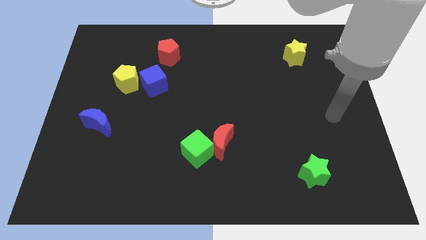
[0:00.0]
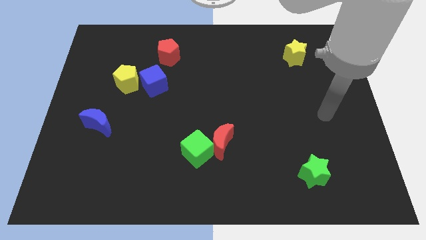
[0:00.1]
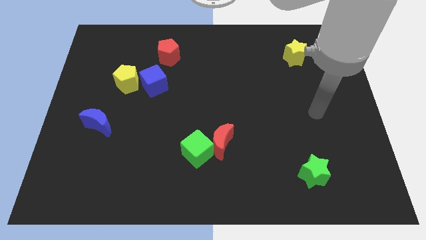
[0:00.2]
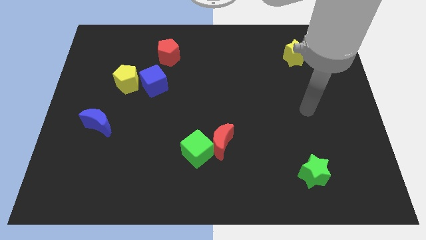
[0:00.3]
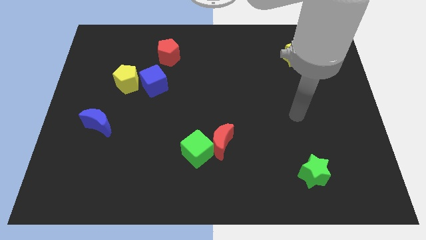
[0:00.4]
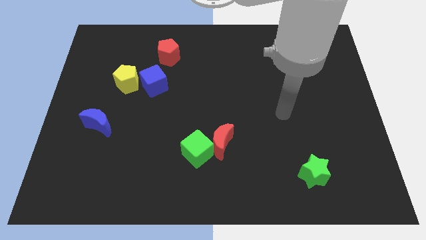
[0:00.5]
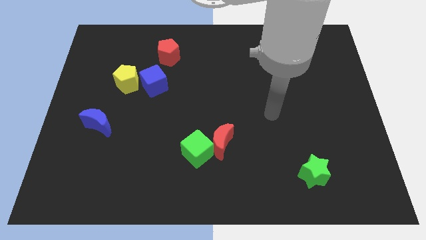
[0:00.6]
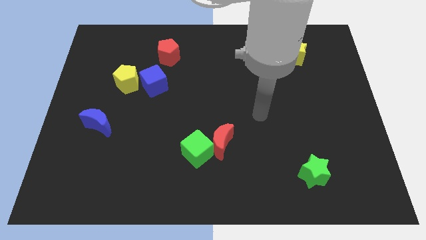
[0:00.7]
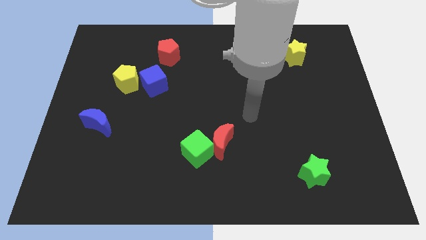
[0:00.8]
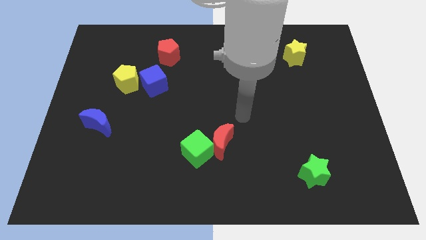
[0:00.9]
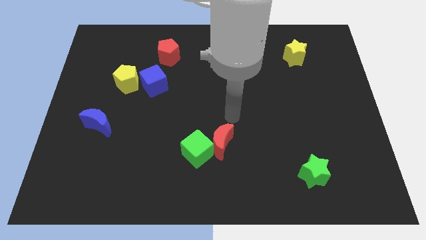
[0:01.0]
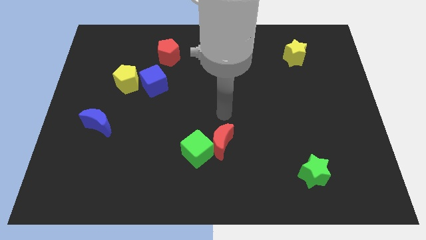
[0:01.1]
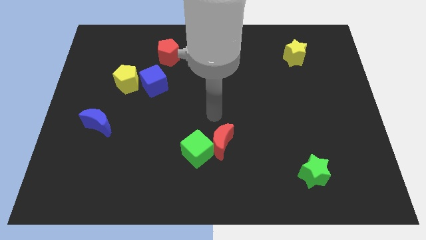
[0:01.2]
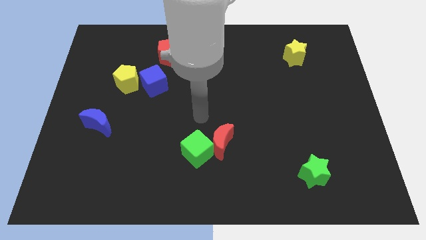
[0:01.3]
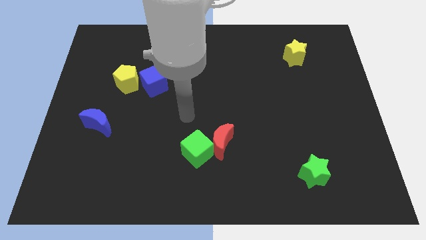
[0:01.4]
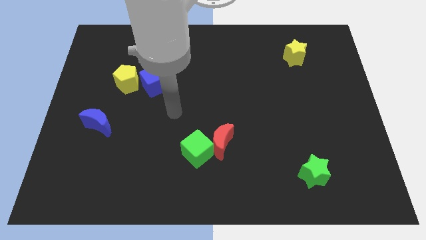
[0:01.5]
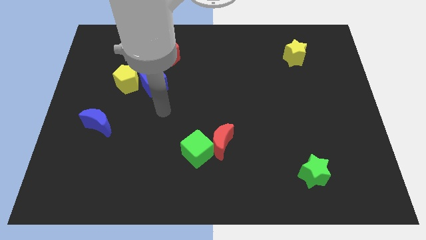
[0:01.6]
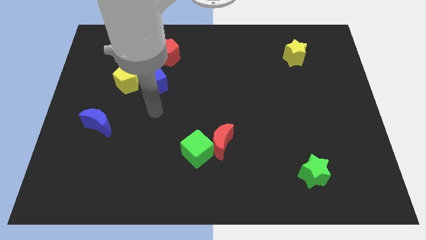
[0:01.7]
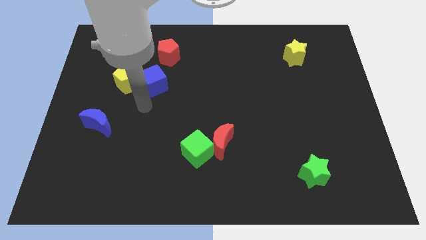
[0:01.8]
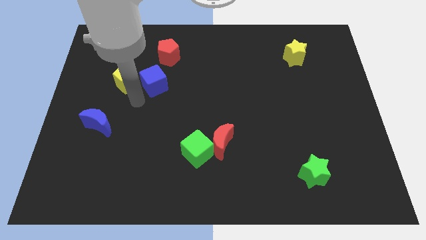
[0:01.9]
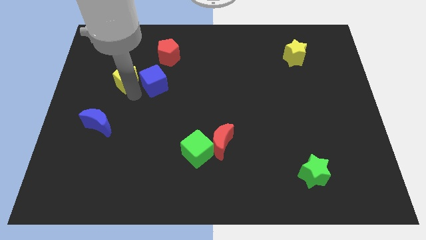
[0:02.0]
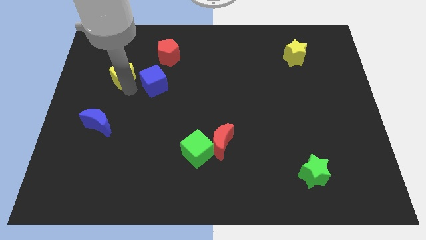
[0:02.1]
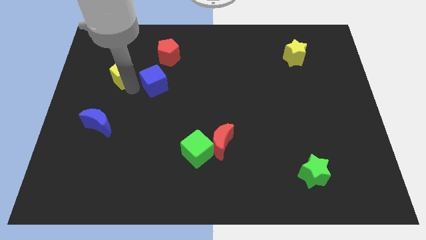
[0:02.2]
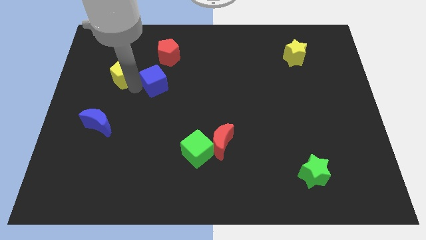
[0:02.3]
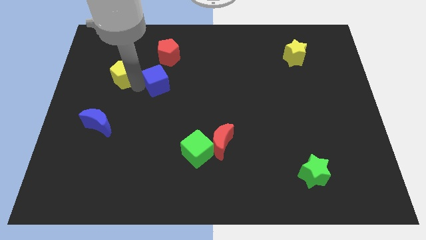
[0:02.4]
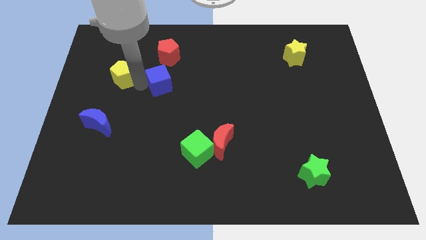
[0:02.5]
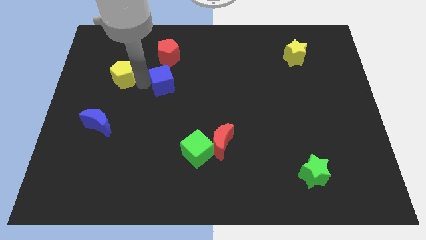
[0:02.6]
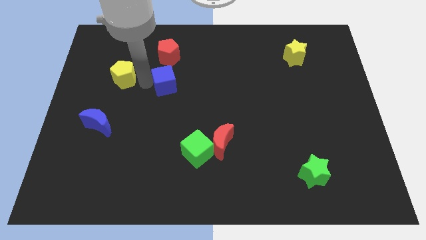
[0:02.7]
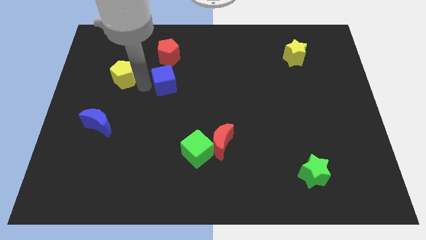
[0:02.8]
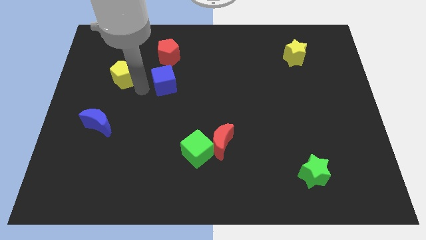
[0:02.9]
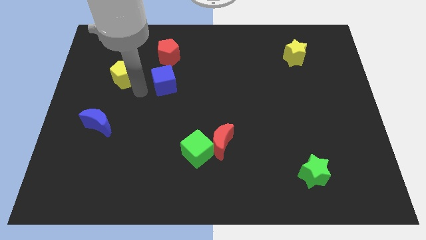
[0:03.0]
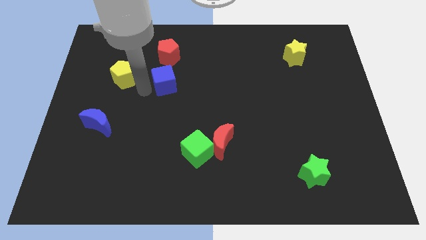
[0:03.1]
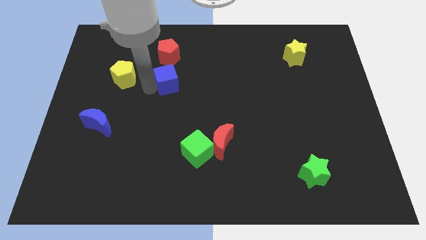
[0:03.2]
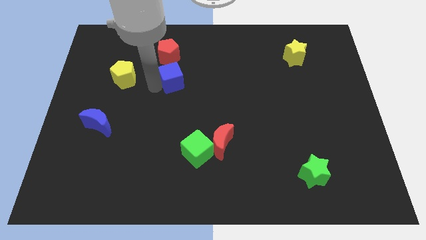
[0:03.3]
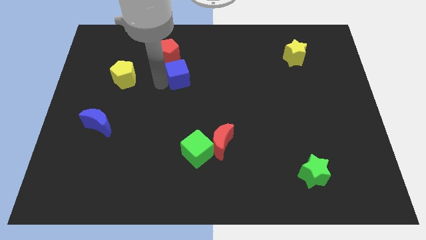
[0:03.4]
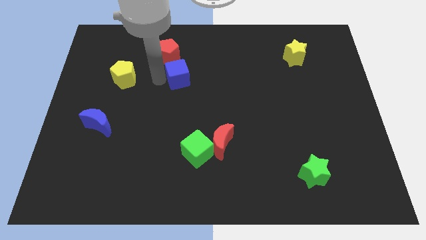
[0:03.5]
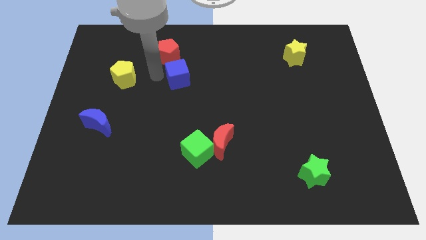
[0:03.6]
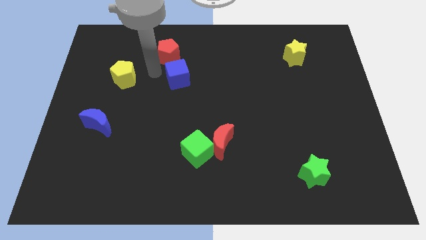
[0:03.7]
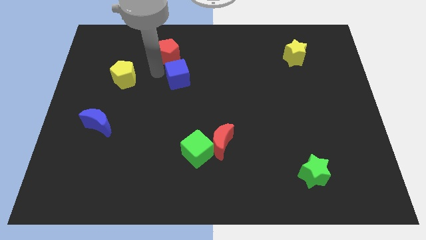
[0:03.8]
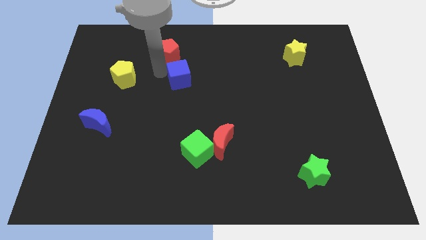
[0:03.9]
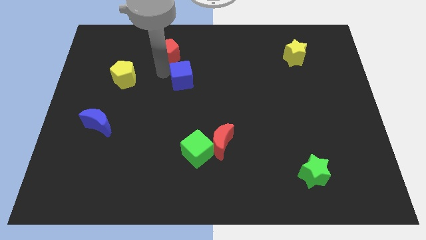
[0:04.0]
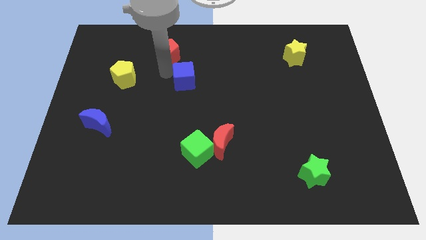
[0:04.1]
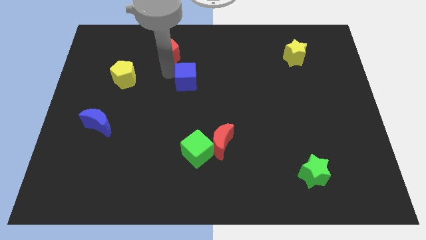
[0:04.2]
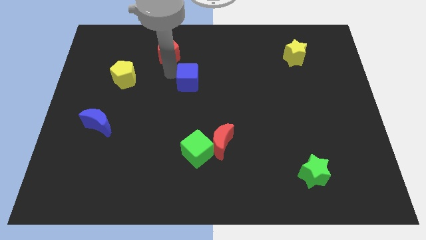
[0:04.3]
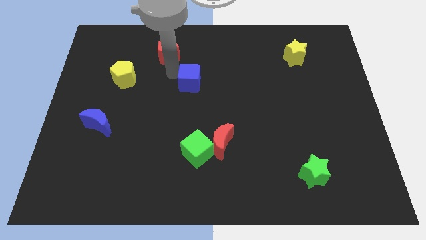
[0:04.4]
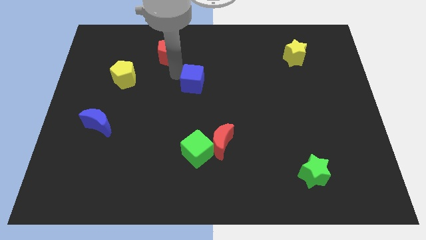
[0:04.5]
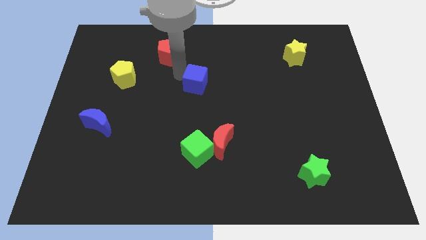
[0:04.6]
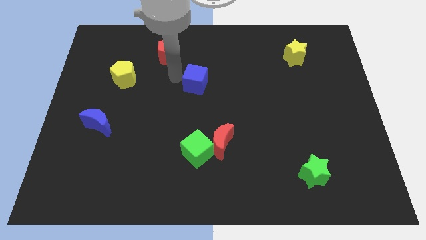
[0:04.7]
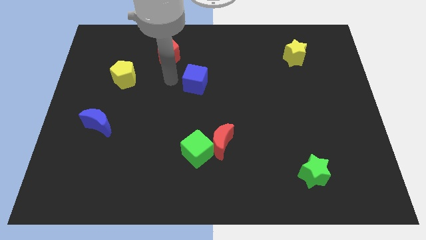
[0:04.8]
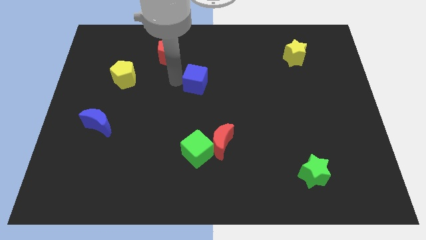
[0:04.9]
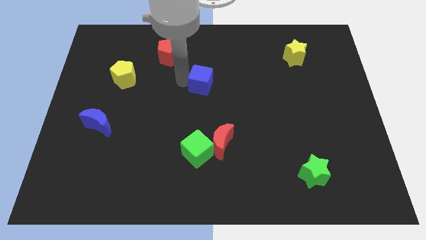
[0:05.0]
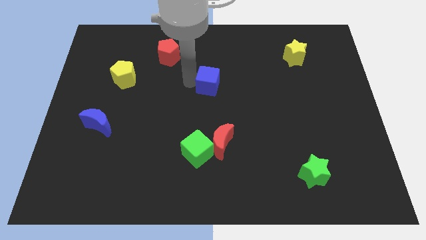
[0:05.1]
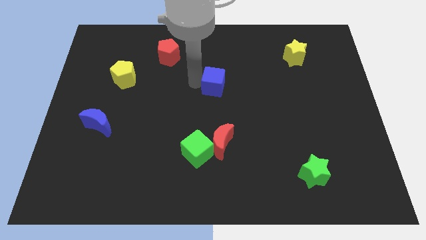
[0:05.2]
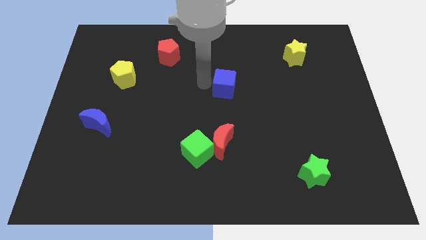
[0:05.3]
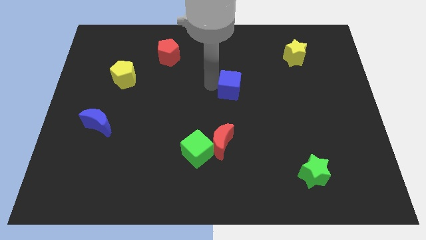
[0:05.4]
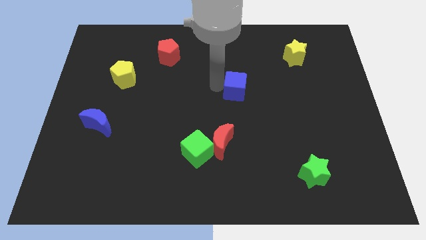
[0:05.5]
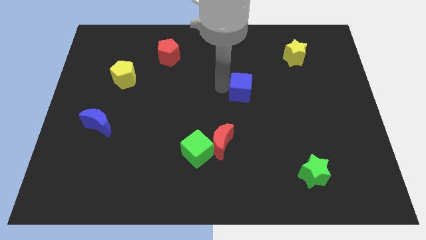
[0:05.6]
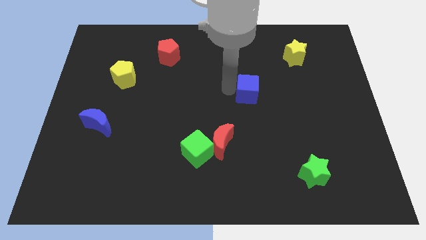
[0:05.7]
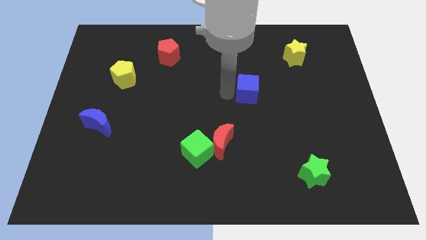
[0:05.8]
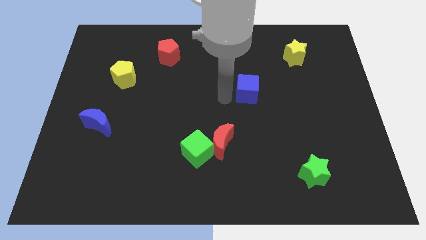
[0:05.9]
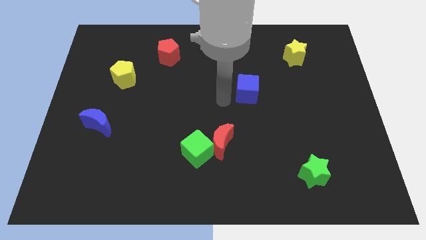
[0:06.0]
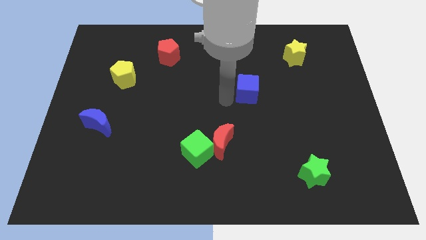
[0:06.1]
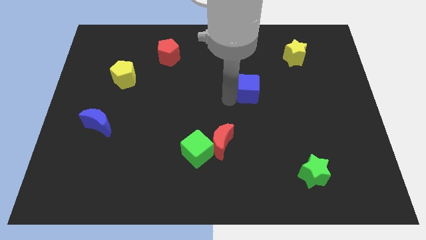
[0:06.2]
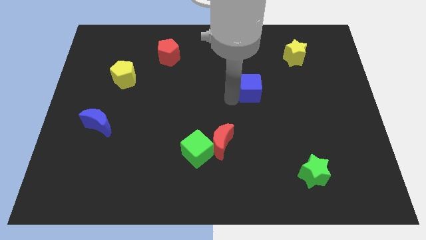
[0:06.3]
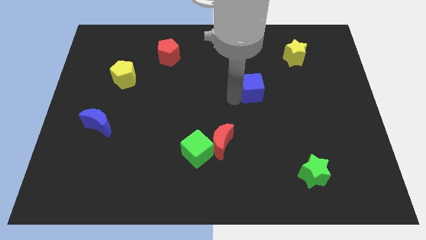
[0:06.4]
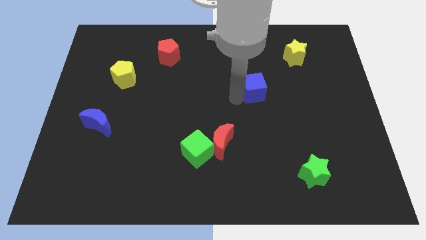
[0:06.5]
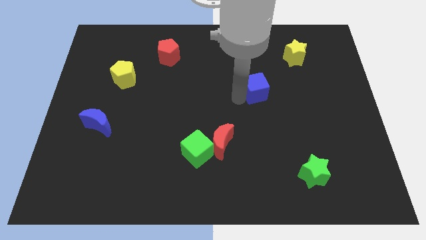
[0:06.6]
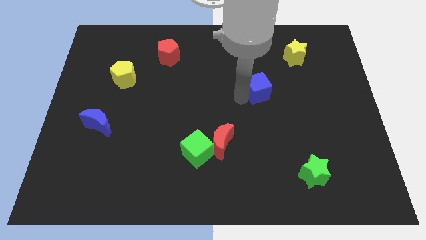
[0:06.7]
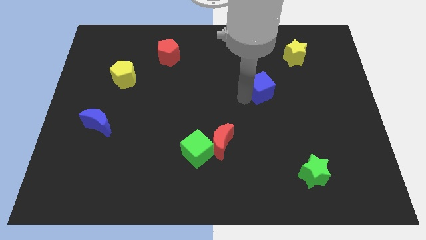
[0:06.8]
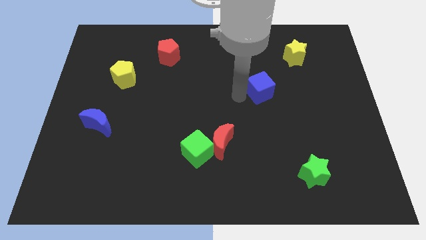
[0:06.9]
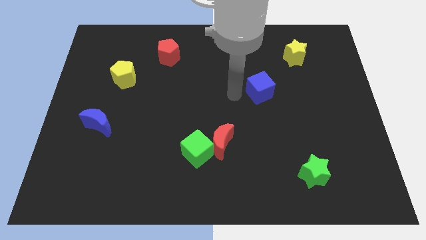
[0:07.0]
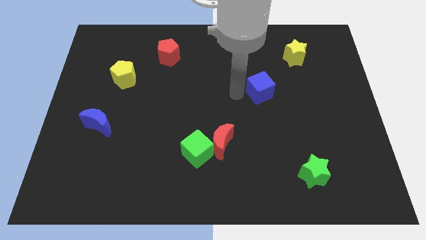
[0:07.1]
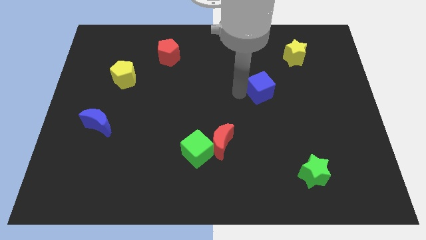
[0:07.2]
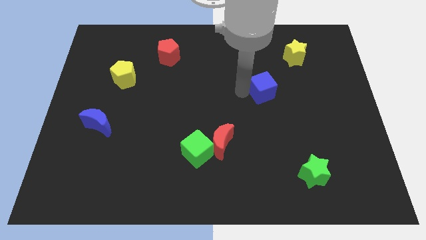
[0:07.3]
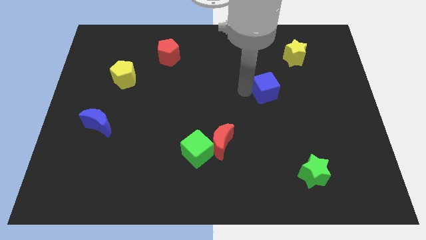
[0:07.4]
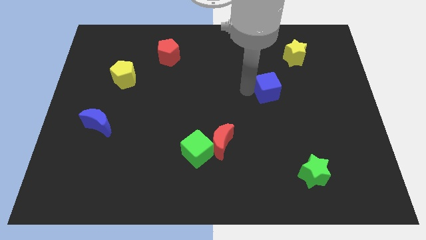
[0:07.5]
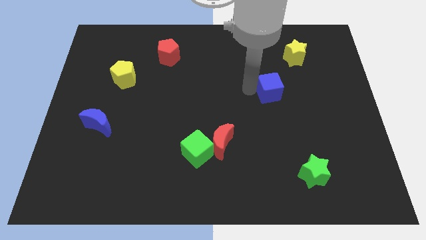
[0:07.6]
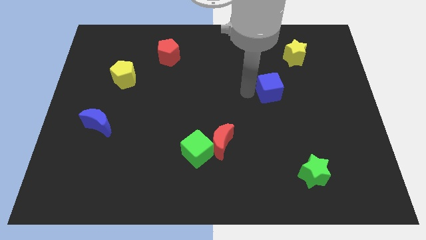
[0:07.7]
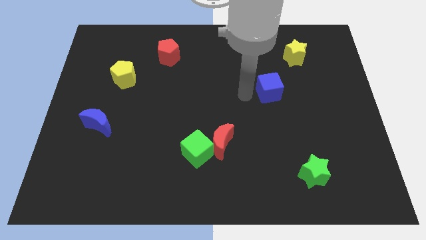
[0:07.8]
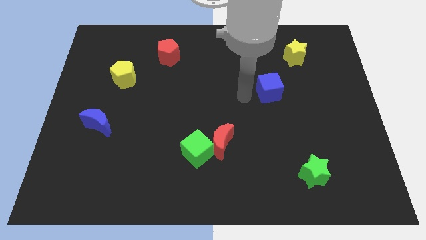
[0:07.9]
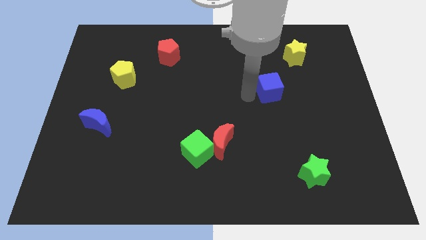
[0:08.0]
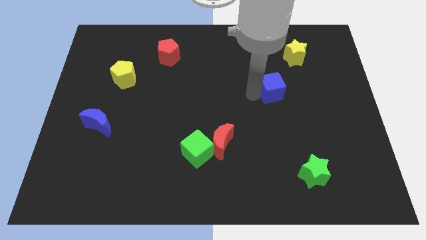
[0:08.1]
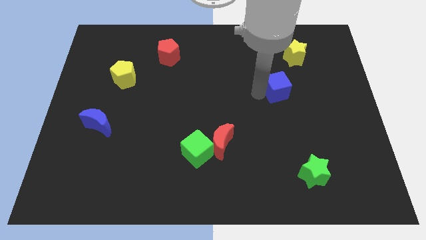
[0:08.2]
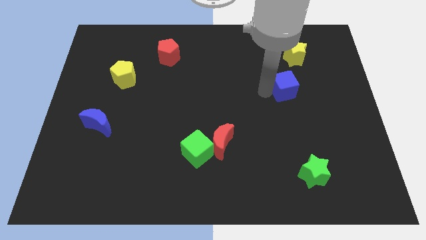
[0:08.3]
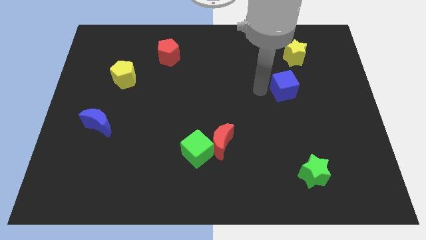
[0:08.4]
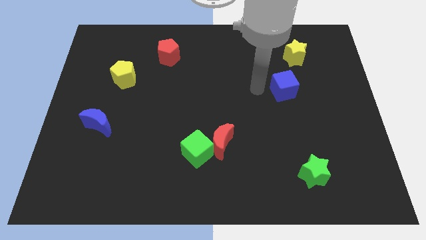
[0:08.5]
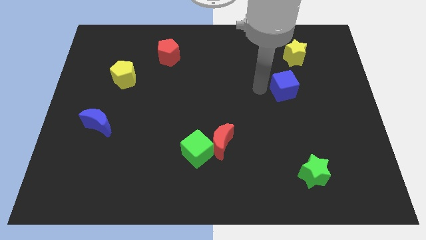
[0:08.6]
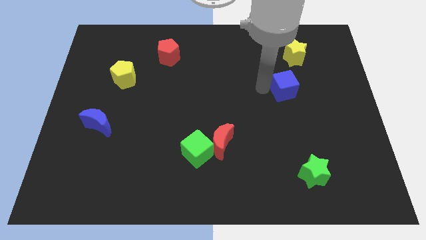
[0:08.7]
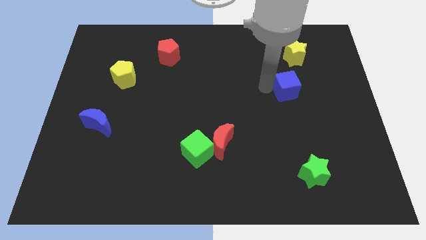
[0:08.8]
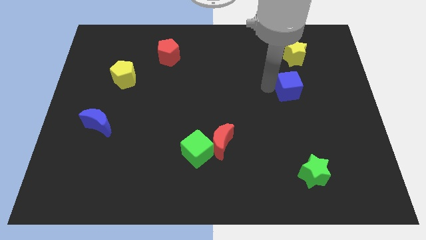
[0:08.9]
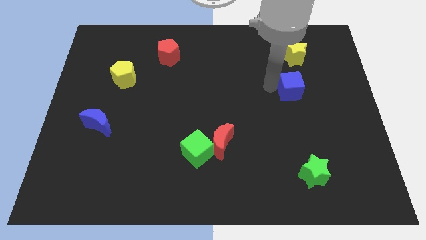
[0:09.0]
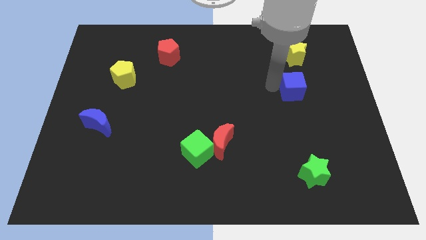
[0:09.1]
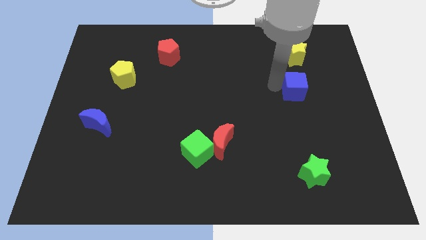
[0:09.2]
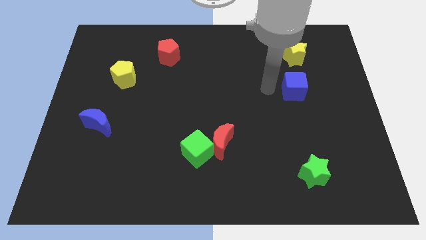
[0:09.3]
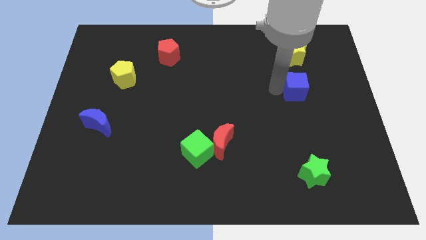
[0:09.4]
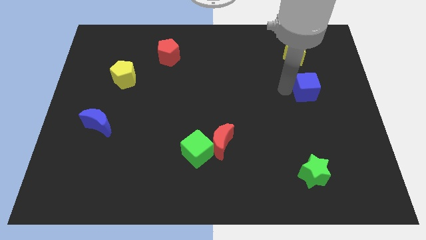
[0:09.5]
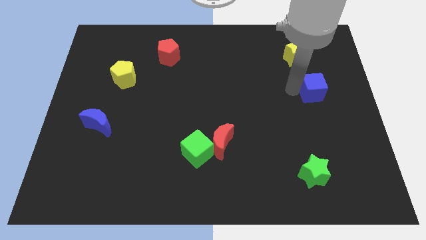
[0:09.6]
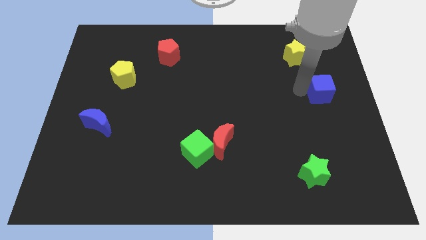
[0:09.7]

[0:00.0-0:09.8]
push the blue cube to the center right
